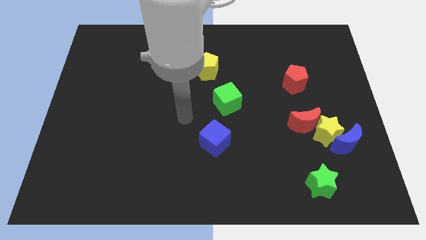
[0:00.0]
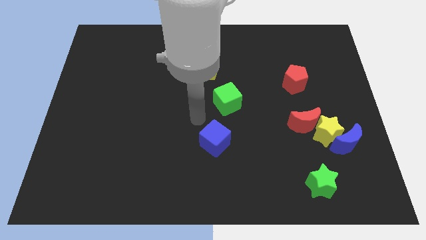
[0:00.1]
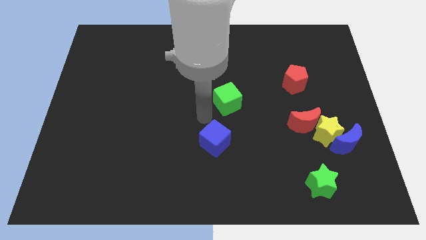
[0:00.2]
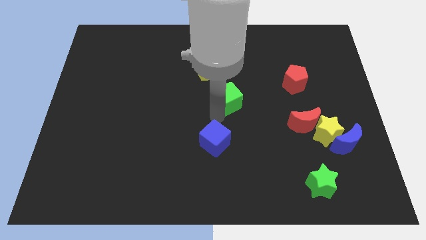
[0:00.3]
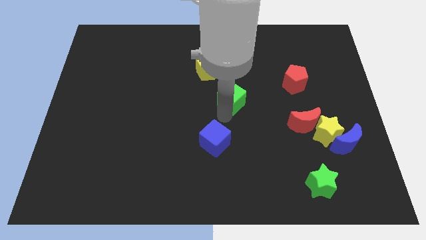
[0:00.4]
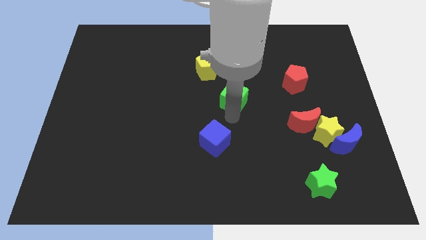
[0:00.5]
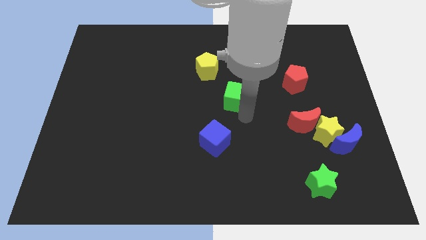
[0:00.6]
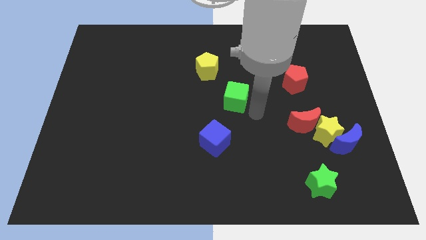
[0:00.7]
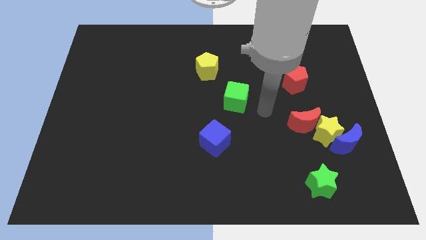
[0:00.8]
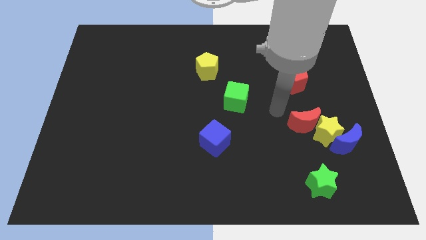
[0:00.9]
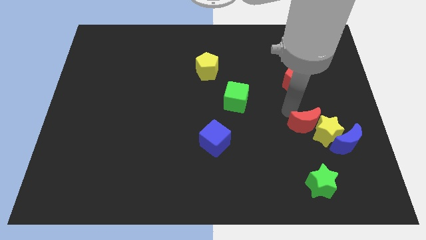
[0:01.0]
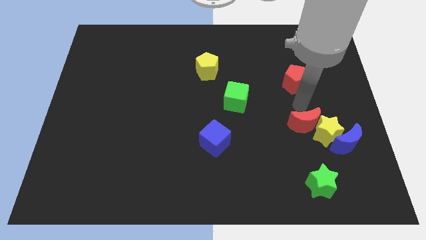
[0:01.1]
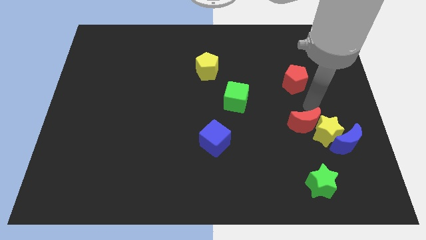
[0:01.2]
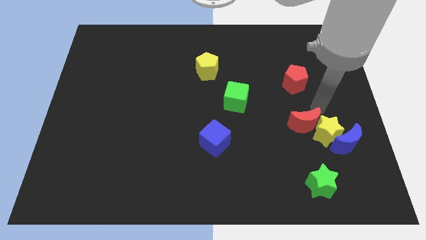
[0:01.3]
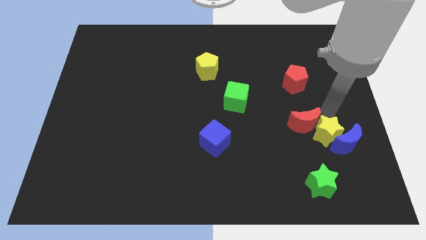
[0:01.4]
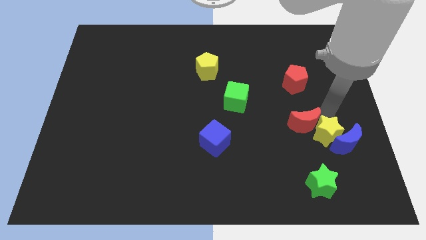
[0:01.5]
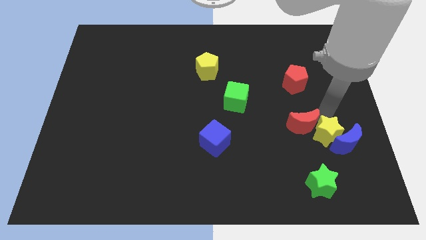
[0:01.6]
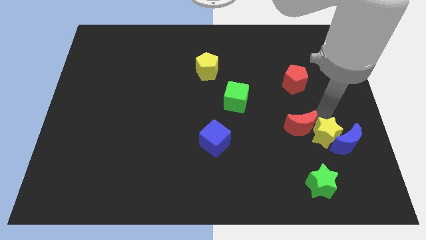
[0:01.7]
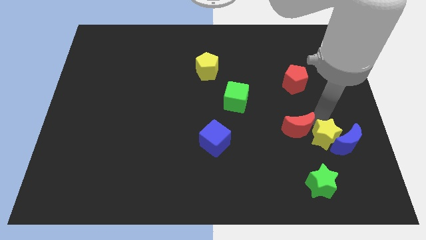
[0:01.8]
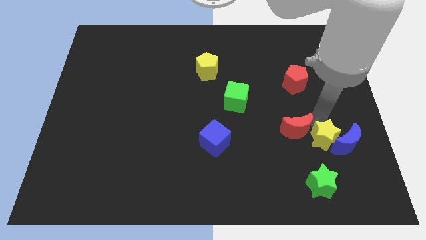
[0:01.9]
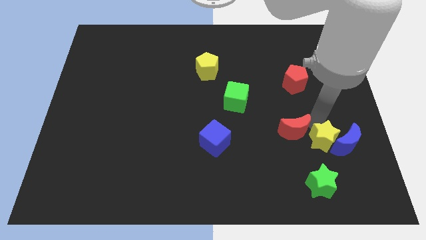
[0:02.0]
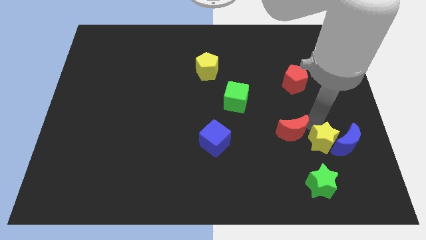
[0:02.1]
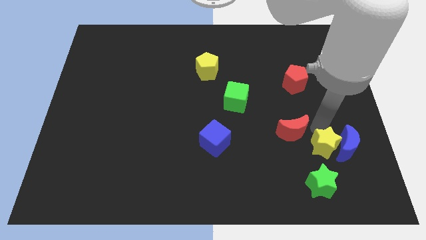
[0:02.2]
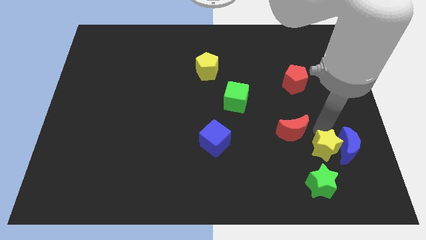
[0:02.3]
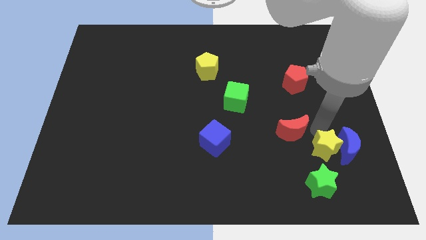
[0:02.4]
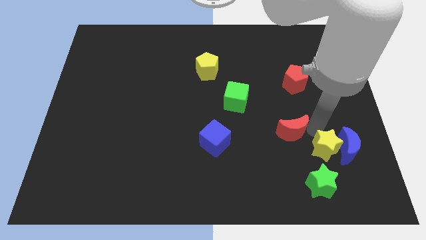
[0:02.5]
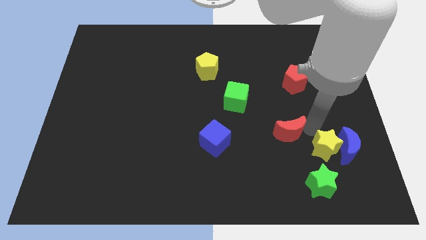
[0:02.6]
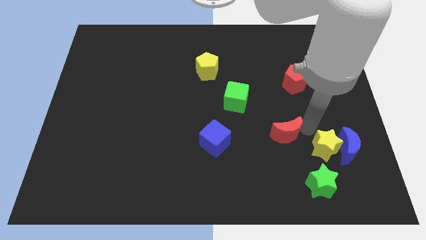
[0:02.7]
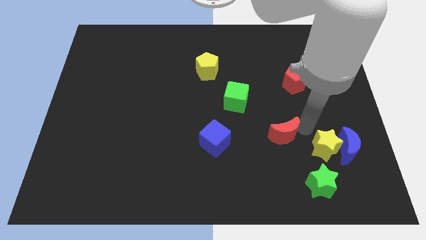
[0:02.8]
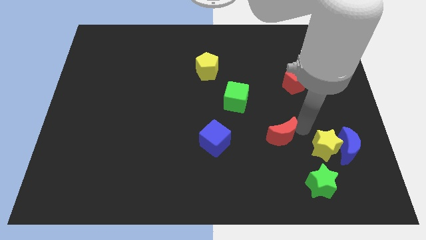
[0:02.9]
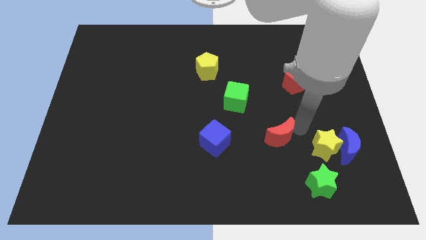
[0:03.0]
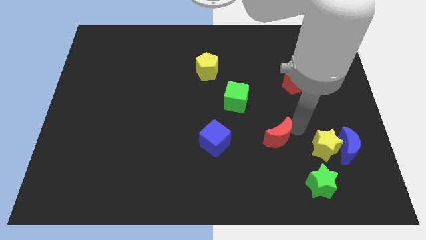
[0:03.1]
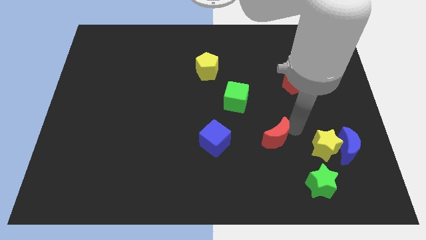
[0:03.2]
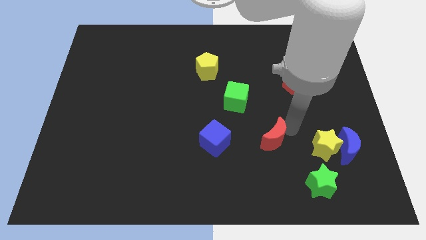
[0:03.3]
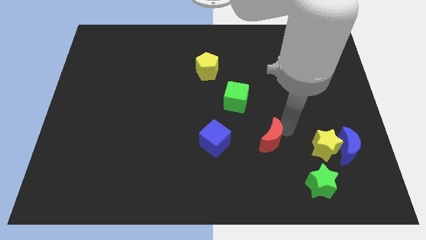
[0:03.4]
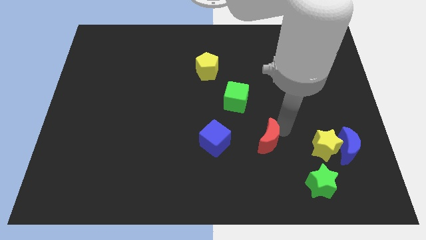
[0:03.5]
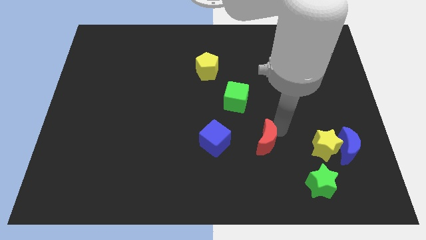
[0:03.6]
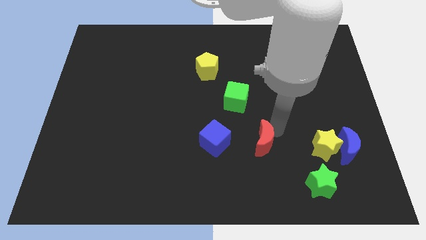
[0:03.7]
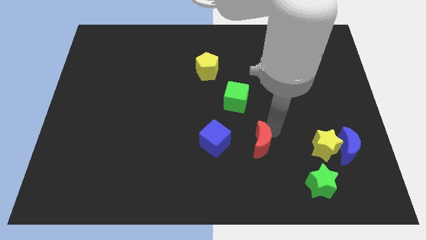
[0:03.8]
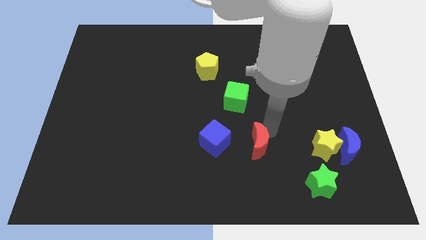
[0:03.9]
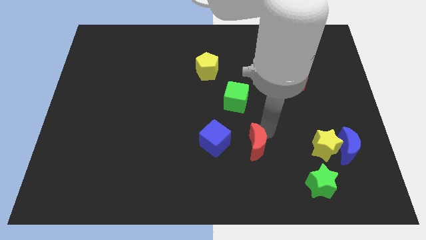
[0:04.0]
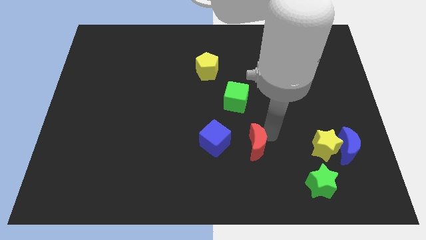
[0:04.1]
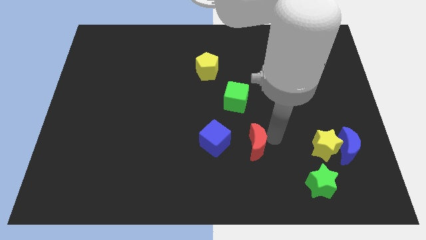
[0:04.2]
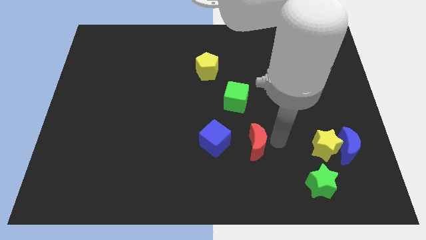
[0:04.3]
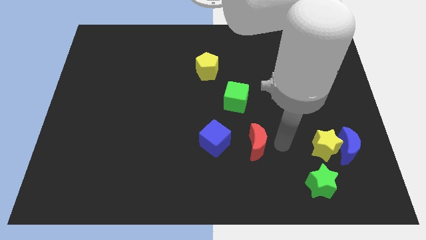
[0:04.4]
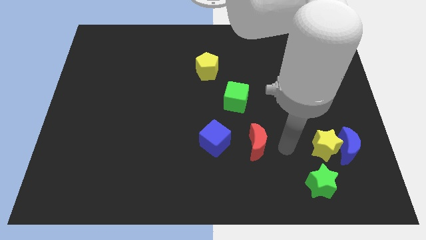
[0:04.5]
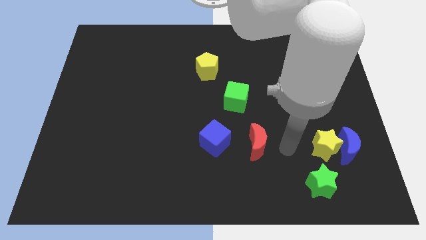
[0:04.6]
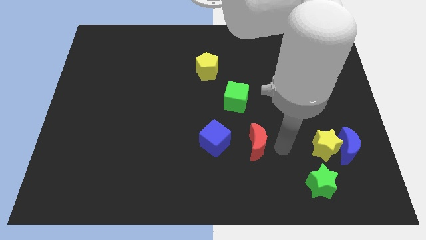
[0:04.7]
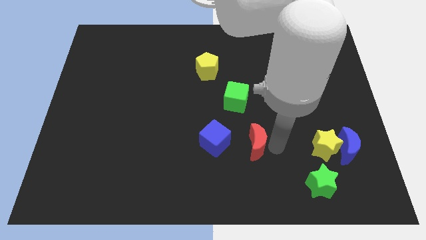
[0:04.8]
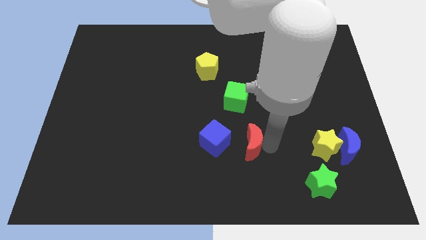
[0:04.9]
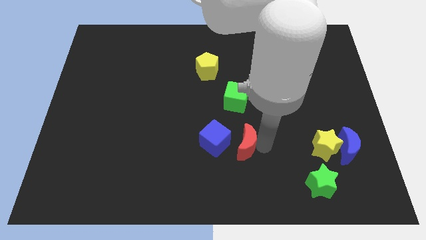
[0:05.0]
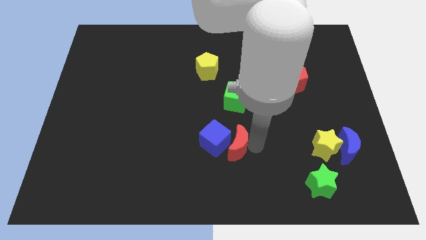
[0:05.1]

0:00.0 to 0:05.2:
put the red moon to the blue cube

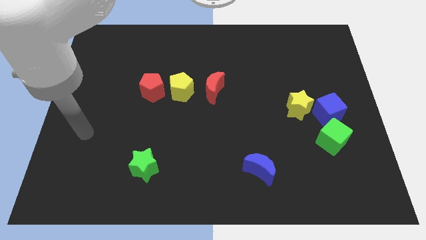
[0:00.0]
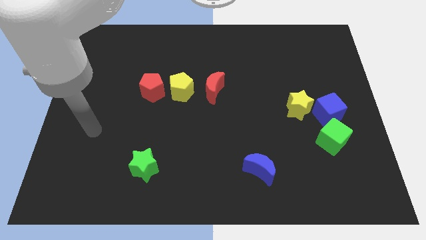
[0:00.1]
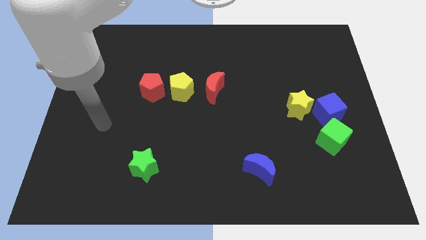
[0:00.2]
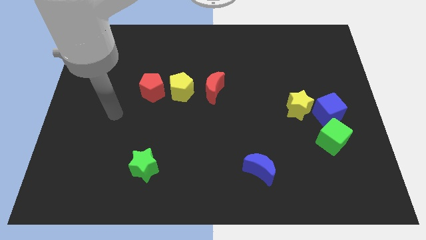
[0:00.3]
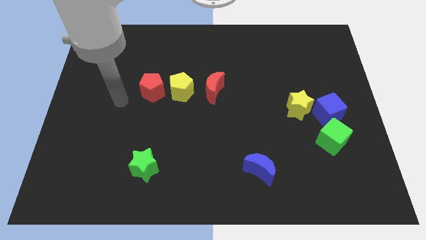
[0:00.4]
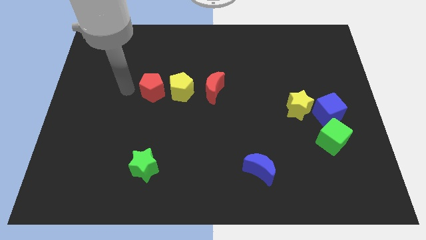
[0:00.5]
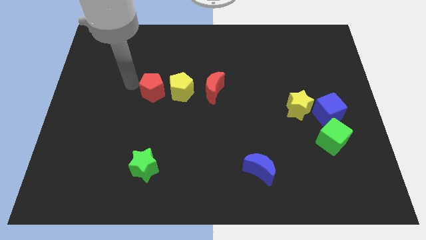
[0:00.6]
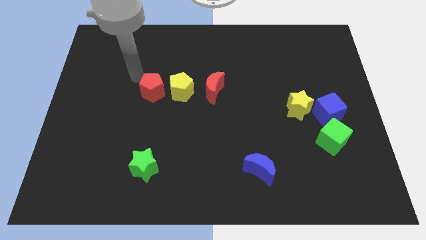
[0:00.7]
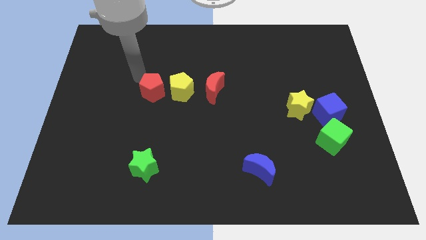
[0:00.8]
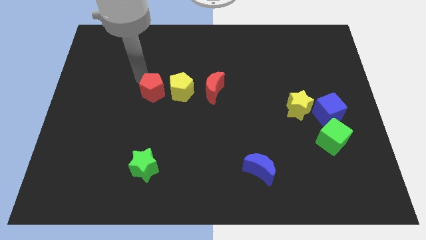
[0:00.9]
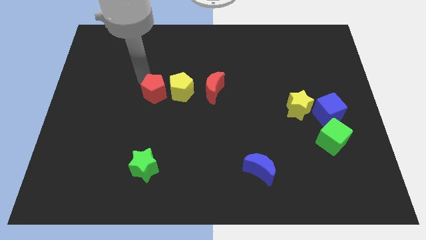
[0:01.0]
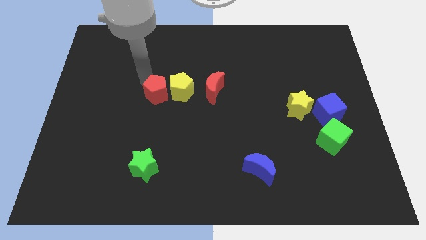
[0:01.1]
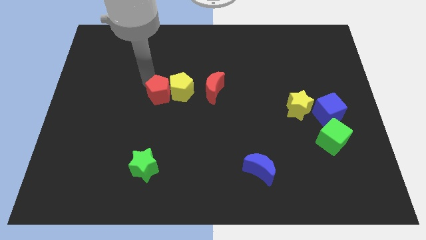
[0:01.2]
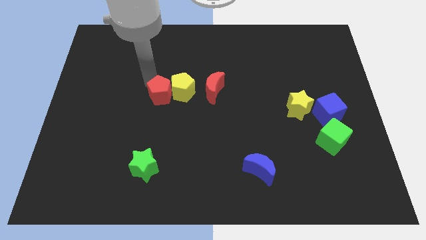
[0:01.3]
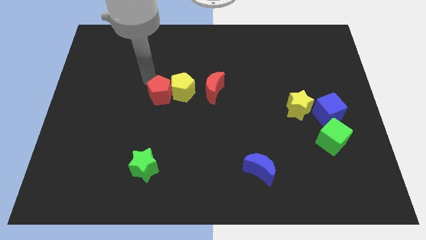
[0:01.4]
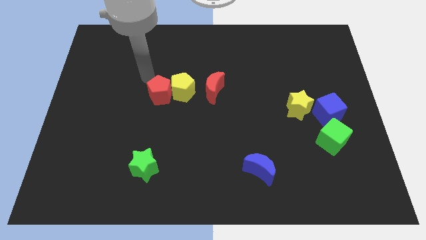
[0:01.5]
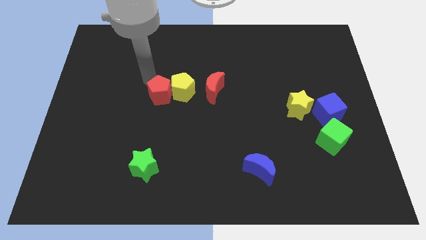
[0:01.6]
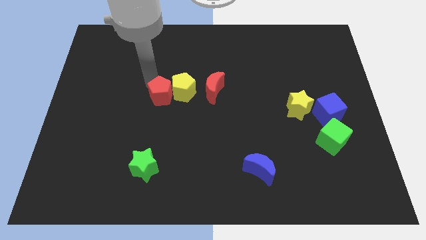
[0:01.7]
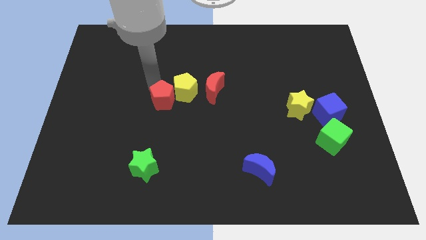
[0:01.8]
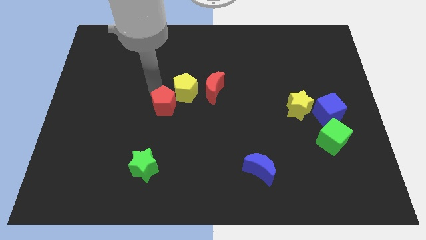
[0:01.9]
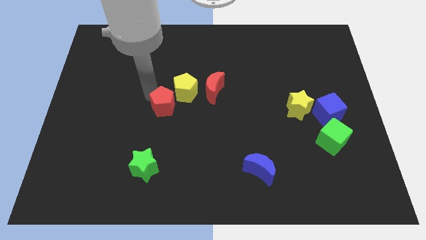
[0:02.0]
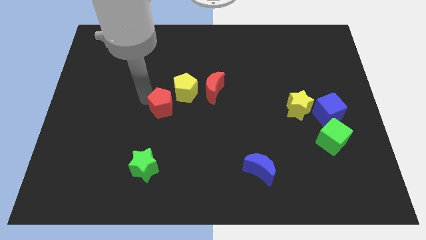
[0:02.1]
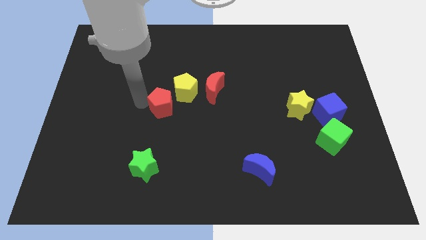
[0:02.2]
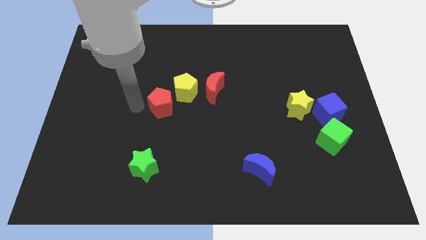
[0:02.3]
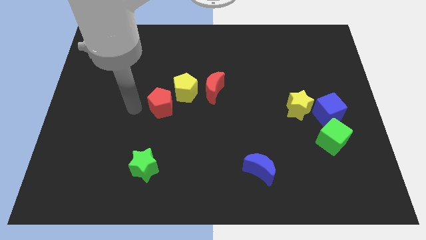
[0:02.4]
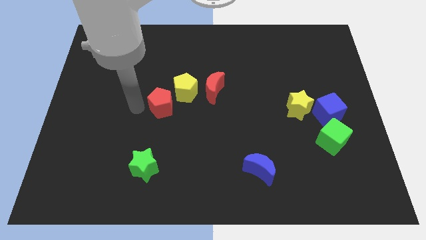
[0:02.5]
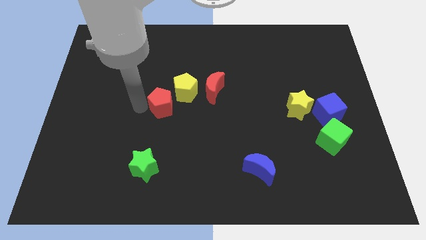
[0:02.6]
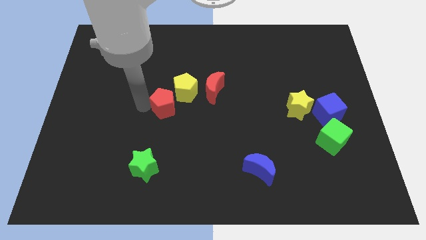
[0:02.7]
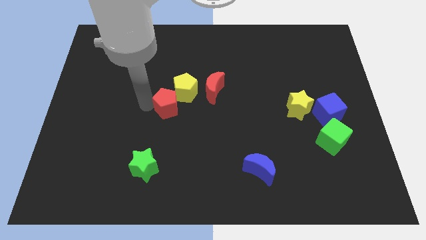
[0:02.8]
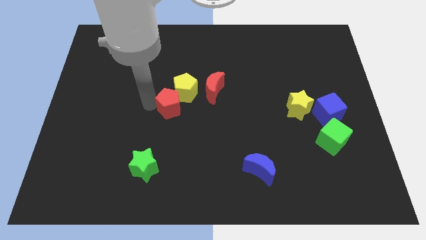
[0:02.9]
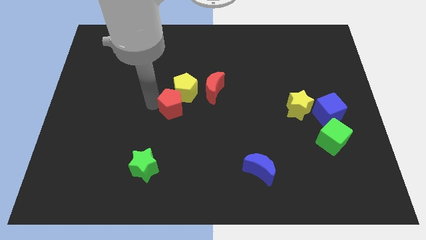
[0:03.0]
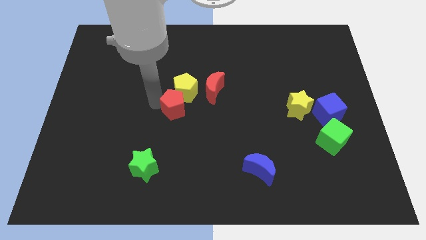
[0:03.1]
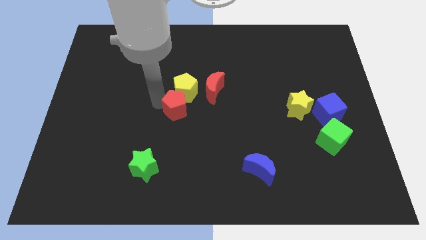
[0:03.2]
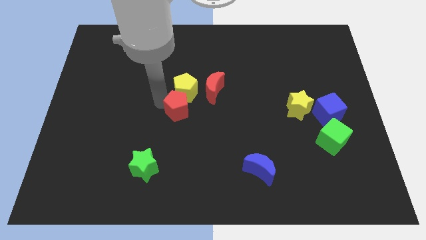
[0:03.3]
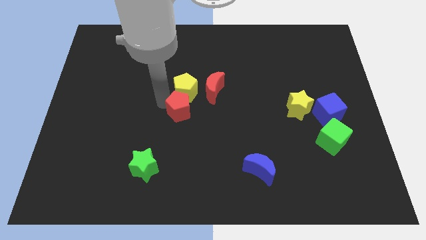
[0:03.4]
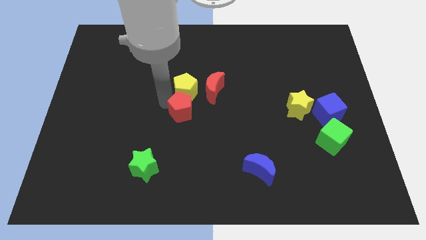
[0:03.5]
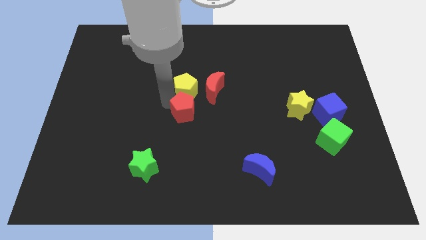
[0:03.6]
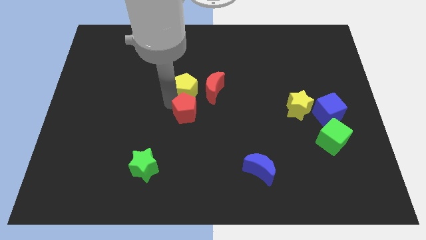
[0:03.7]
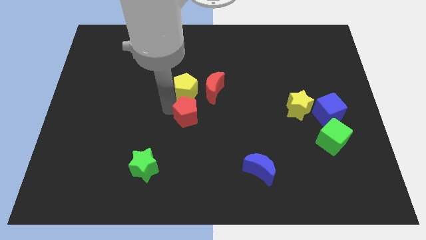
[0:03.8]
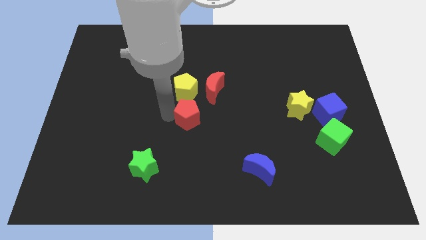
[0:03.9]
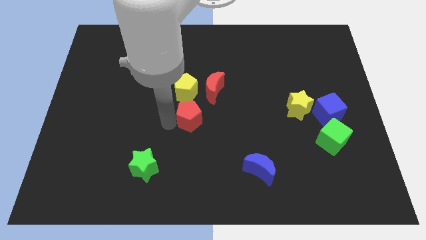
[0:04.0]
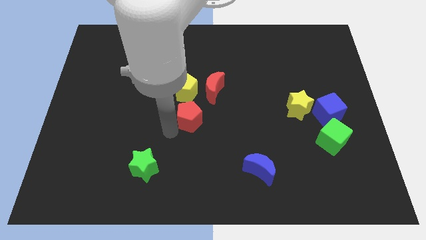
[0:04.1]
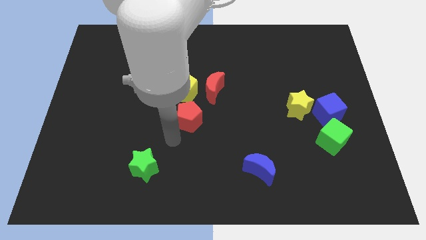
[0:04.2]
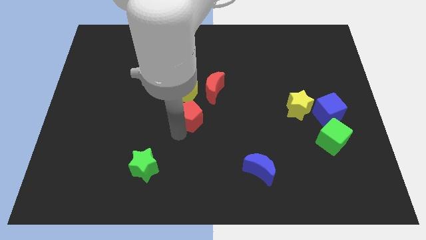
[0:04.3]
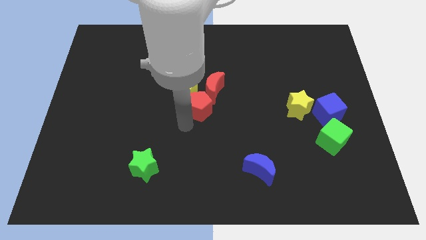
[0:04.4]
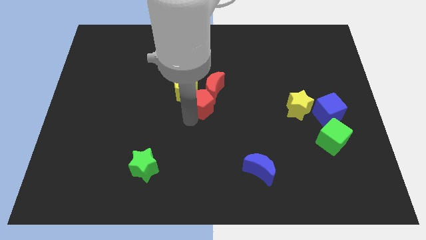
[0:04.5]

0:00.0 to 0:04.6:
move the red pentagon close to the red moon
